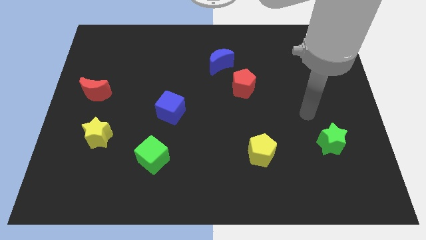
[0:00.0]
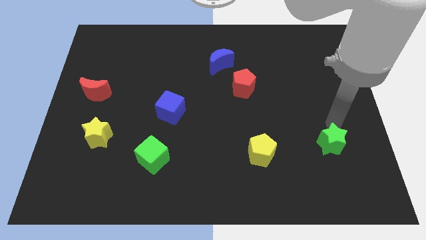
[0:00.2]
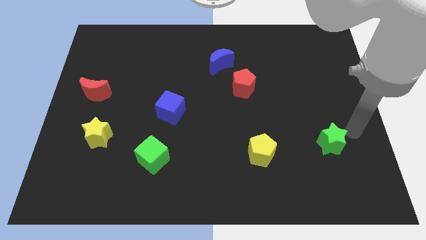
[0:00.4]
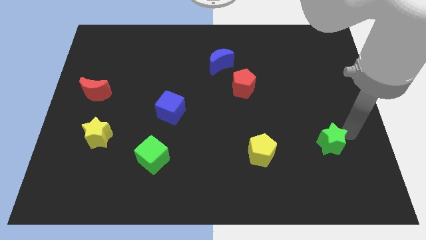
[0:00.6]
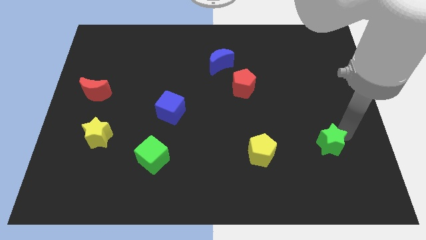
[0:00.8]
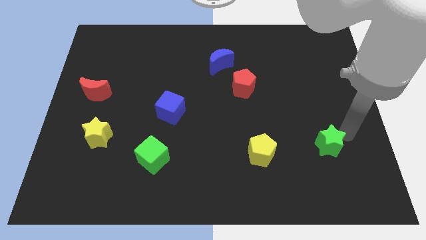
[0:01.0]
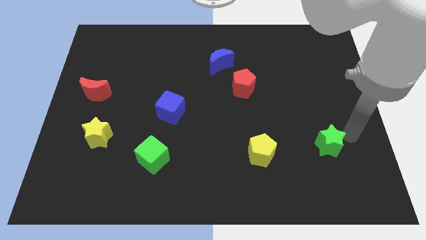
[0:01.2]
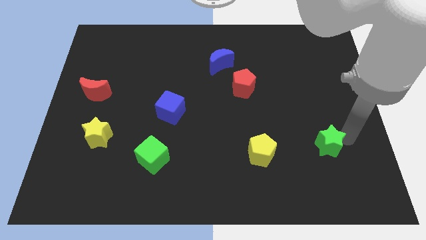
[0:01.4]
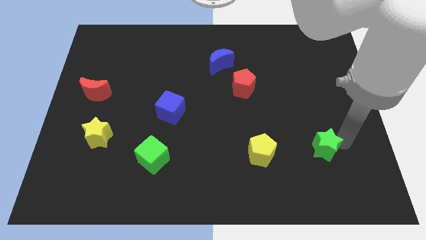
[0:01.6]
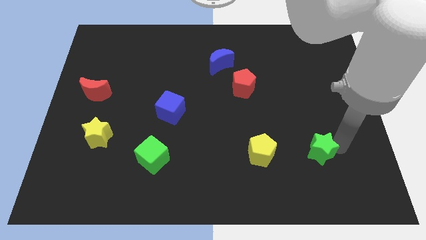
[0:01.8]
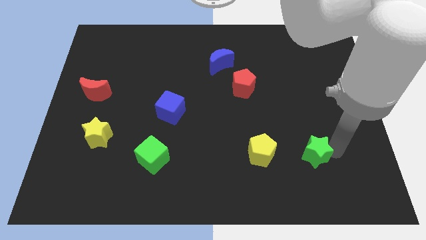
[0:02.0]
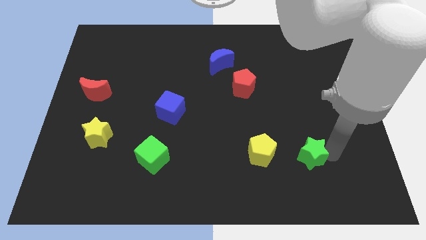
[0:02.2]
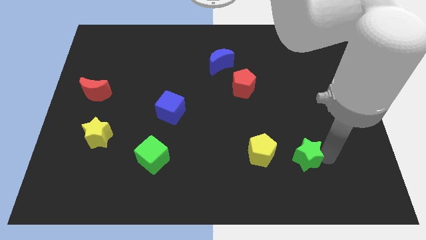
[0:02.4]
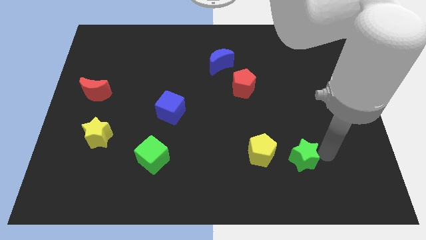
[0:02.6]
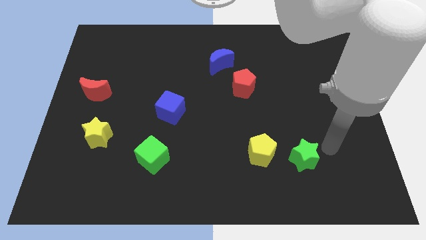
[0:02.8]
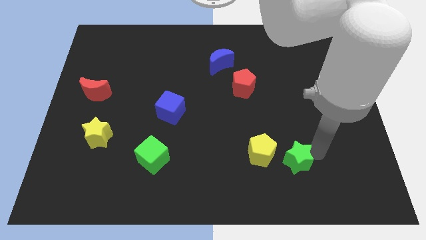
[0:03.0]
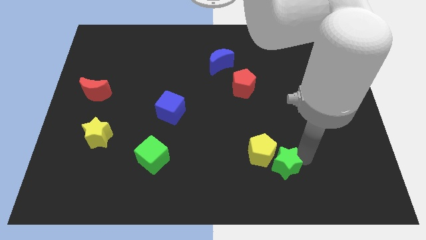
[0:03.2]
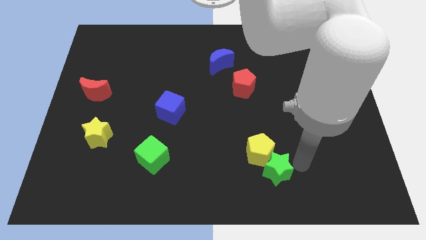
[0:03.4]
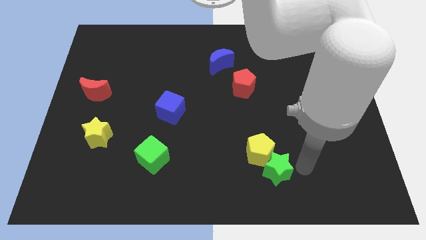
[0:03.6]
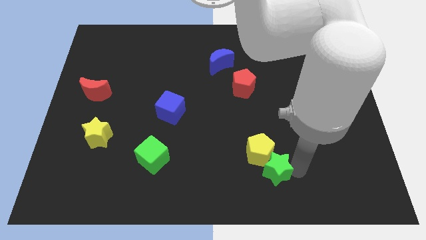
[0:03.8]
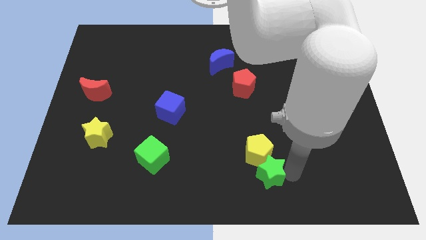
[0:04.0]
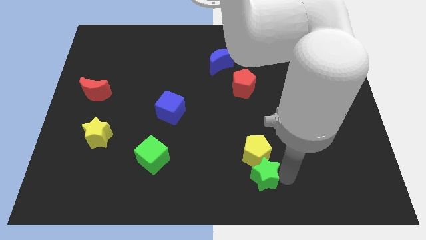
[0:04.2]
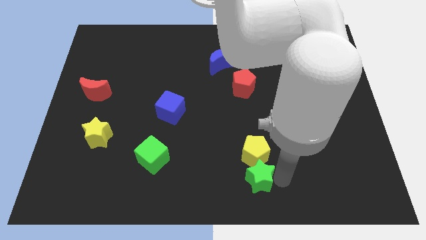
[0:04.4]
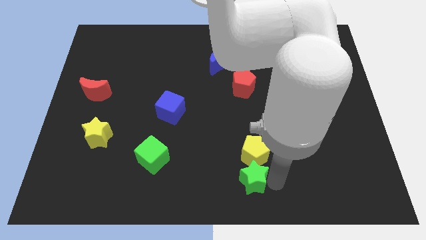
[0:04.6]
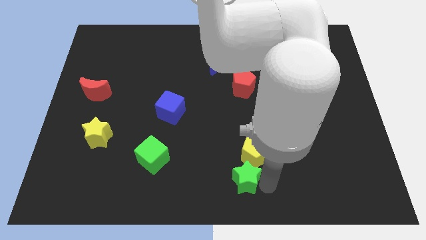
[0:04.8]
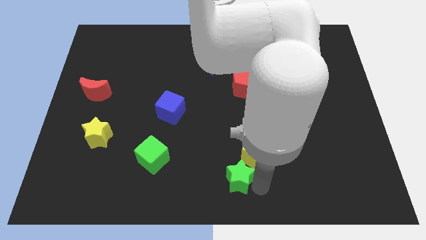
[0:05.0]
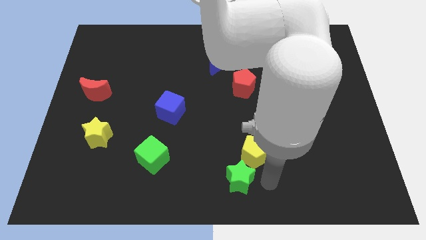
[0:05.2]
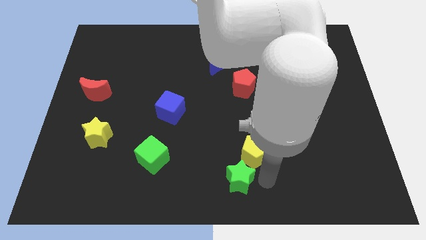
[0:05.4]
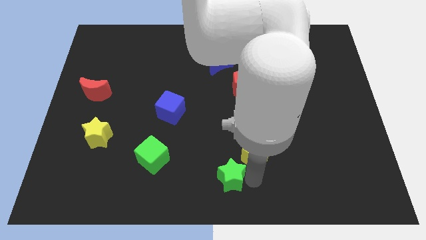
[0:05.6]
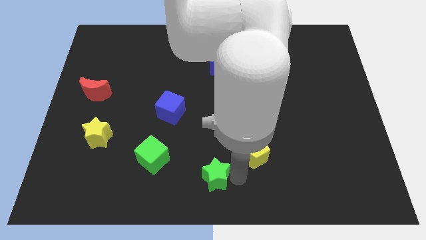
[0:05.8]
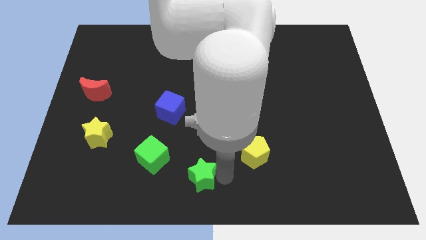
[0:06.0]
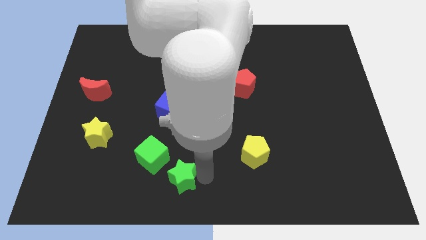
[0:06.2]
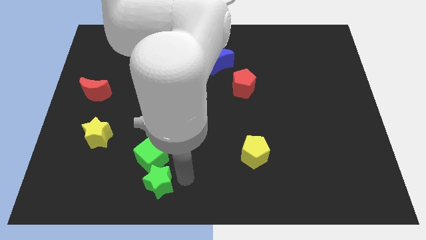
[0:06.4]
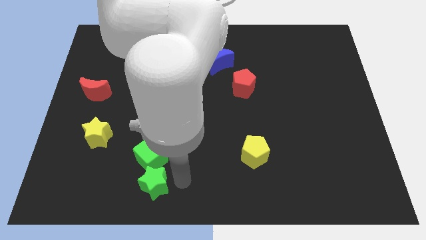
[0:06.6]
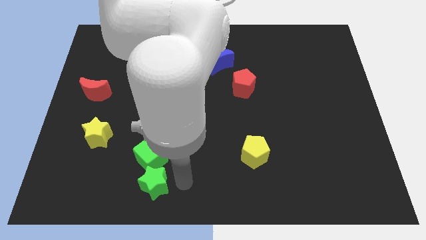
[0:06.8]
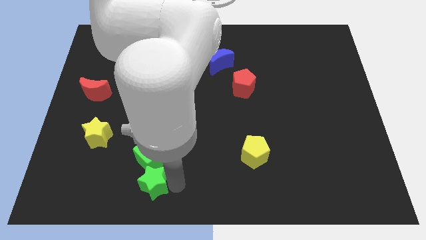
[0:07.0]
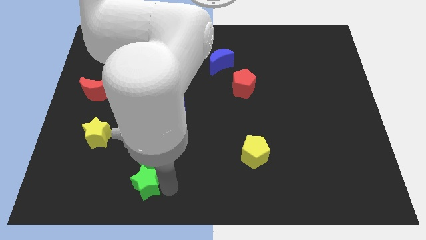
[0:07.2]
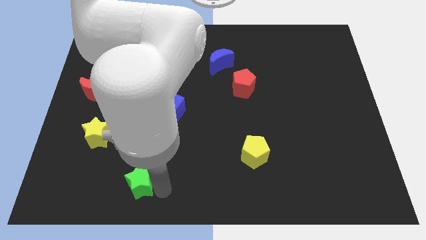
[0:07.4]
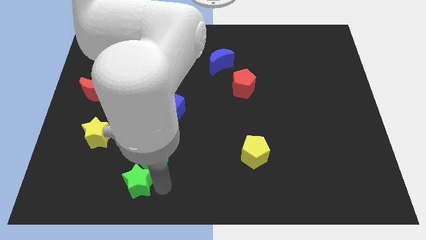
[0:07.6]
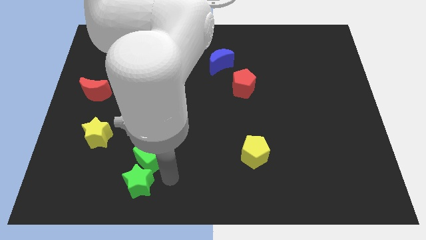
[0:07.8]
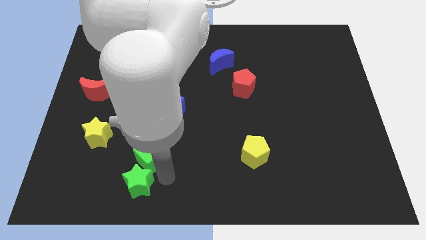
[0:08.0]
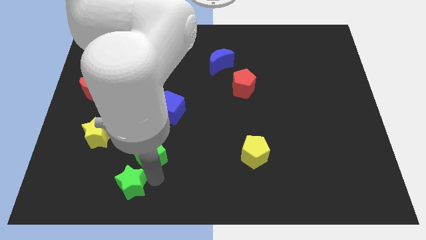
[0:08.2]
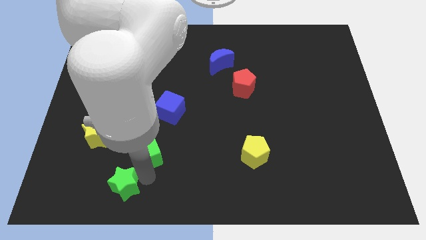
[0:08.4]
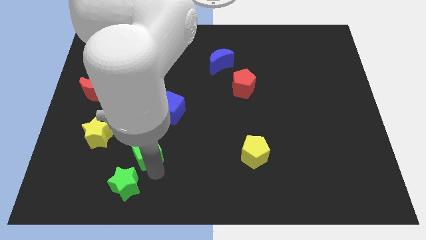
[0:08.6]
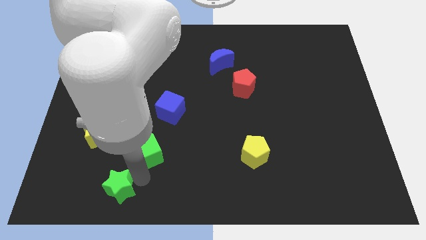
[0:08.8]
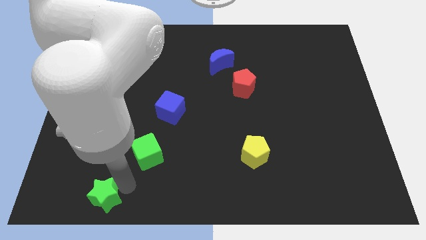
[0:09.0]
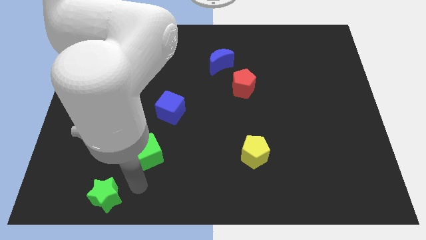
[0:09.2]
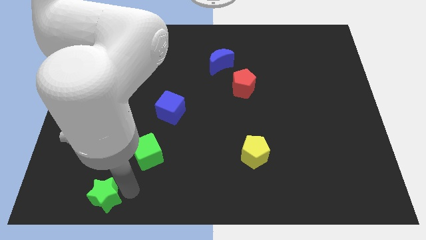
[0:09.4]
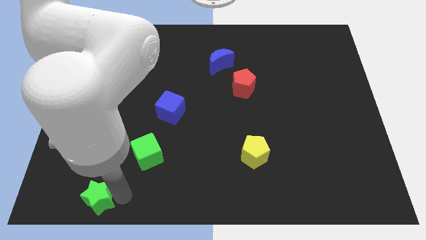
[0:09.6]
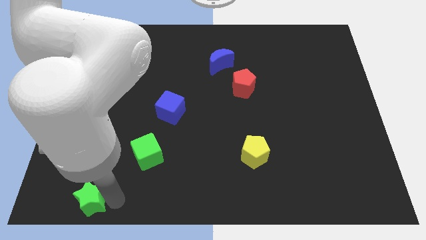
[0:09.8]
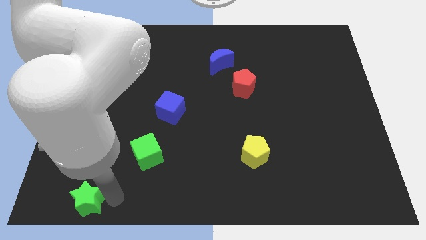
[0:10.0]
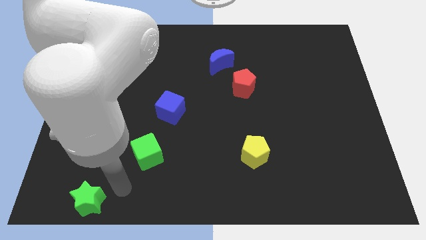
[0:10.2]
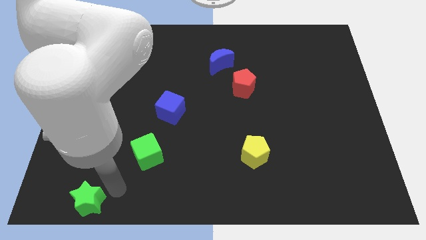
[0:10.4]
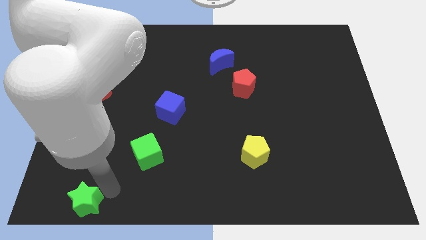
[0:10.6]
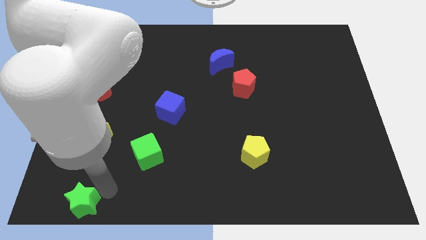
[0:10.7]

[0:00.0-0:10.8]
push the green star to the lower left corner

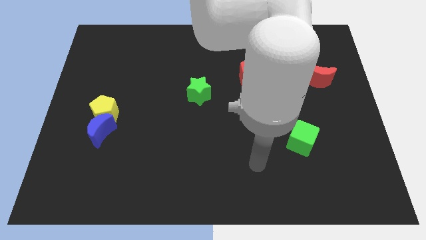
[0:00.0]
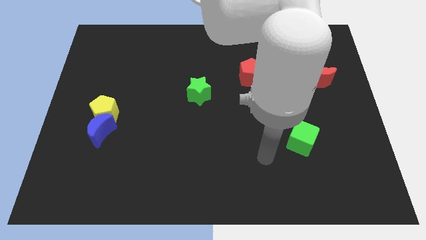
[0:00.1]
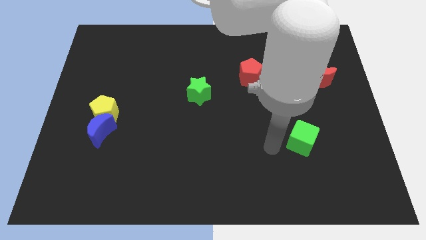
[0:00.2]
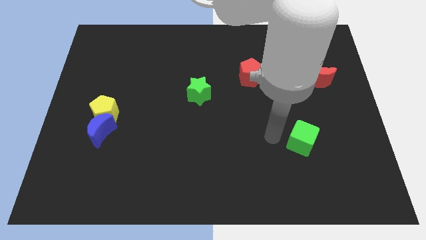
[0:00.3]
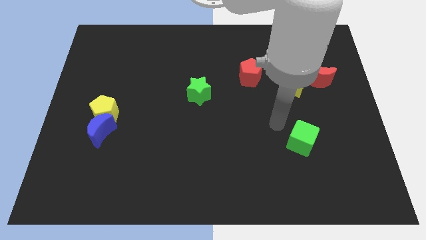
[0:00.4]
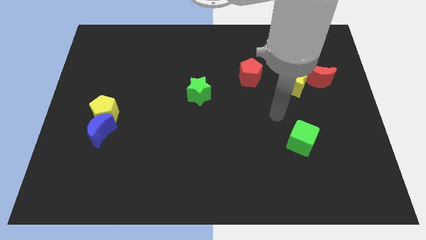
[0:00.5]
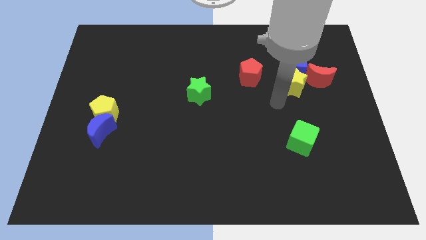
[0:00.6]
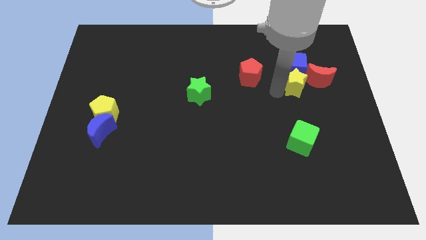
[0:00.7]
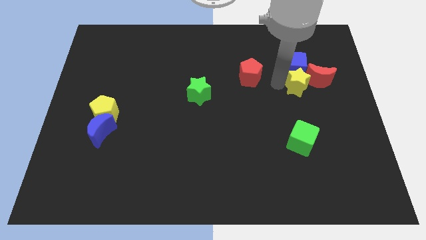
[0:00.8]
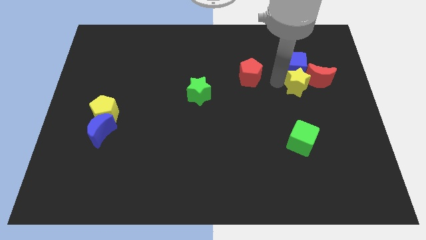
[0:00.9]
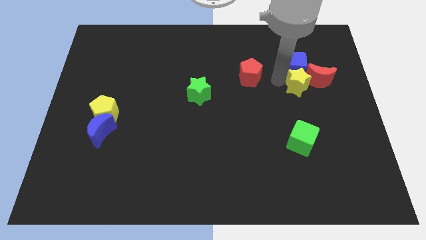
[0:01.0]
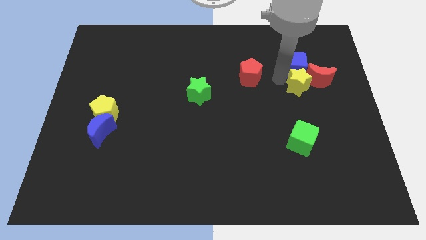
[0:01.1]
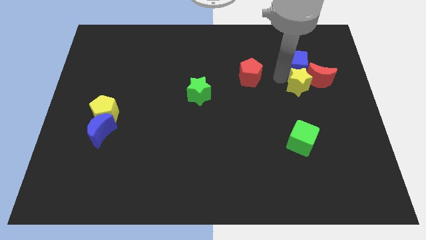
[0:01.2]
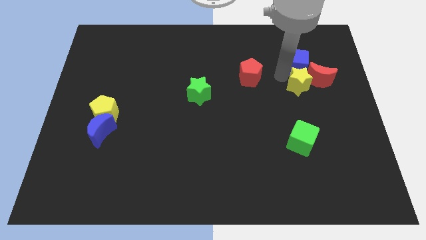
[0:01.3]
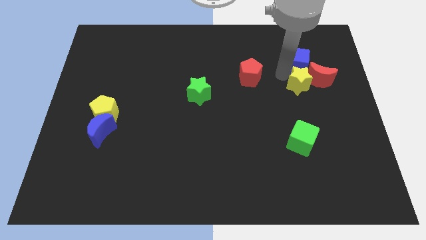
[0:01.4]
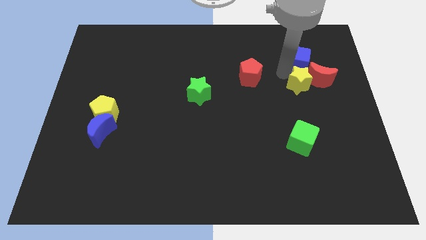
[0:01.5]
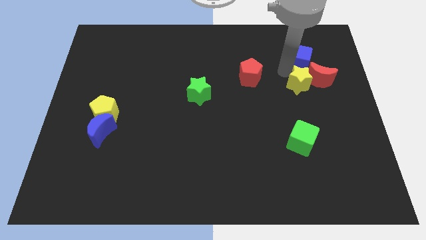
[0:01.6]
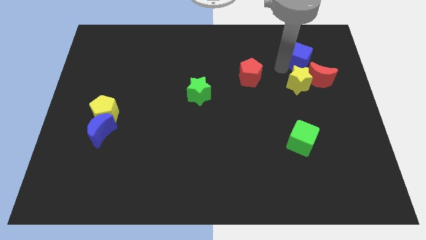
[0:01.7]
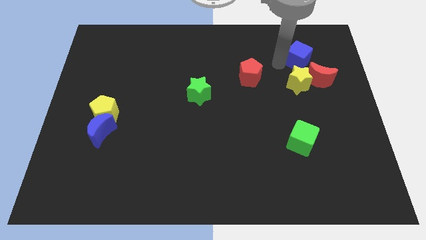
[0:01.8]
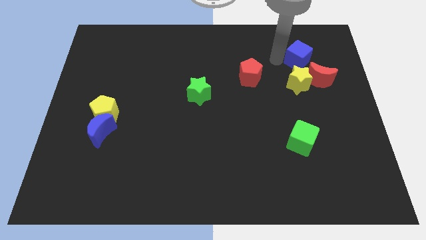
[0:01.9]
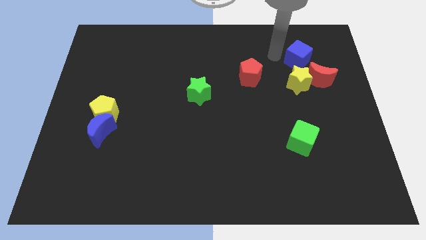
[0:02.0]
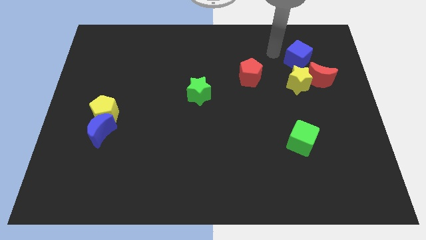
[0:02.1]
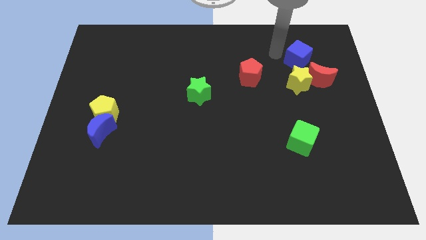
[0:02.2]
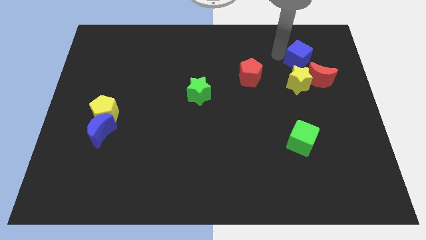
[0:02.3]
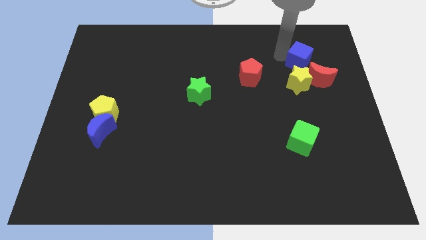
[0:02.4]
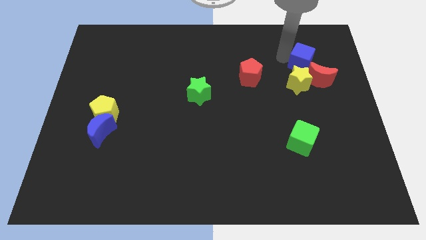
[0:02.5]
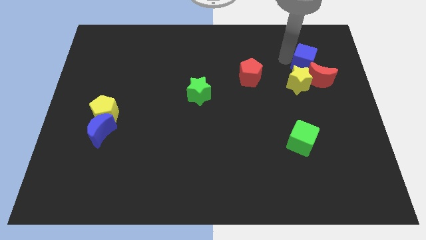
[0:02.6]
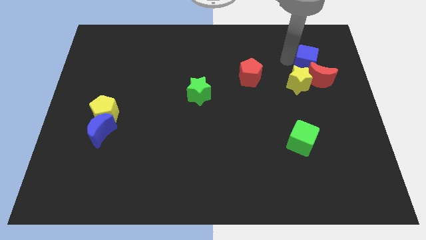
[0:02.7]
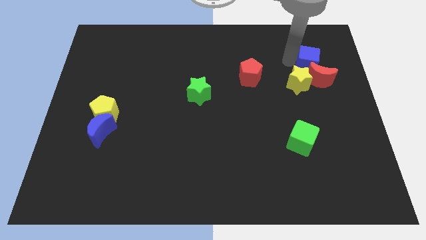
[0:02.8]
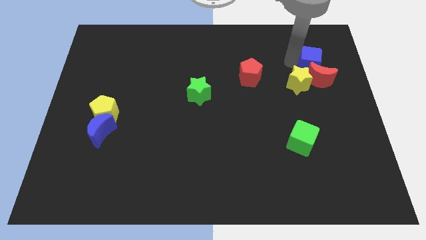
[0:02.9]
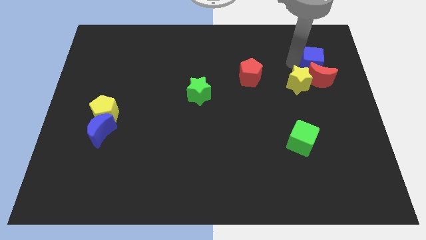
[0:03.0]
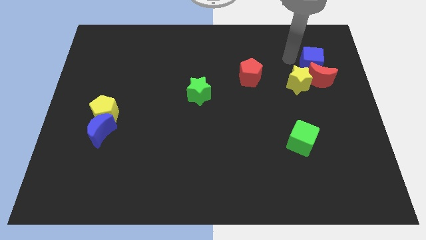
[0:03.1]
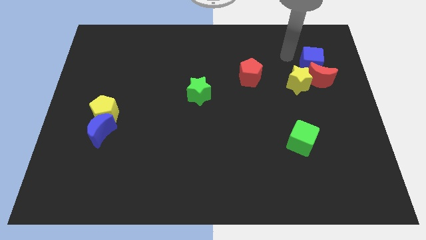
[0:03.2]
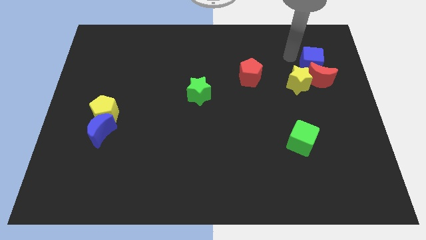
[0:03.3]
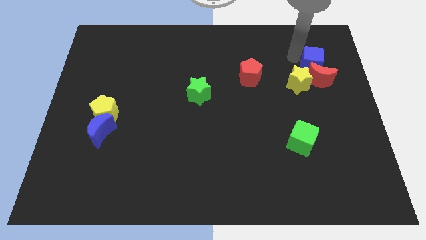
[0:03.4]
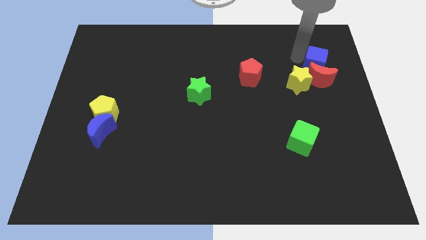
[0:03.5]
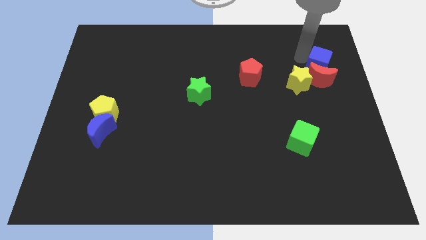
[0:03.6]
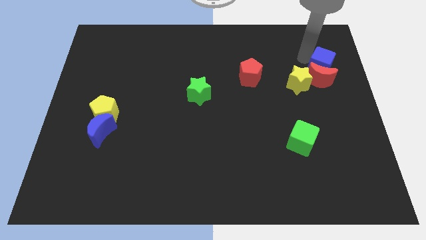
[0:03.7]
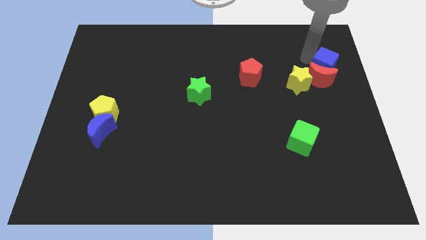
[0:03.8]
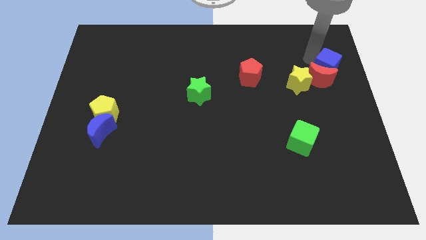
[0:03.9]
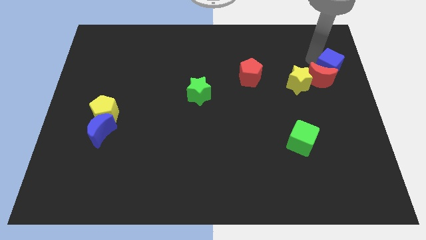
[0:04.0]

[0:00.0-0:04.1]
move the blue cube to the right side of the board
